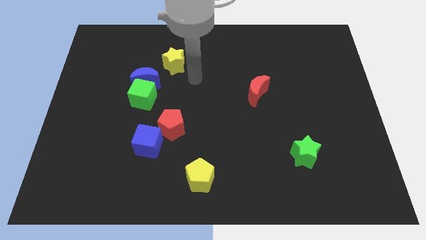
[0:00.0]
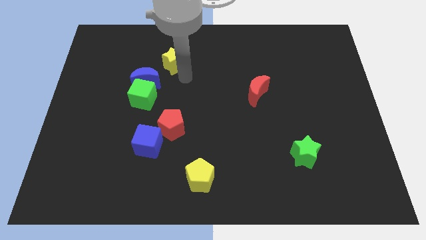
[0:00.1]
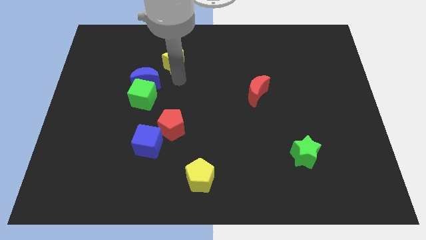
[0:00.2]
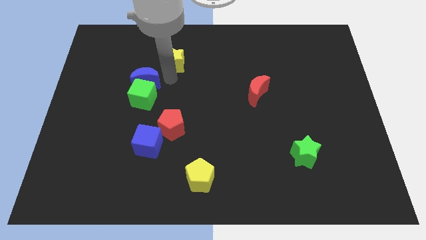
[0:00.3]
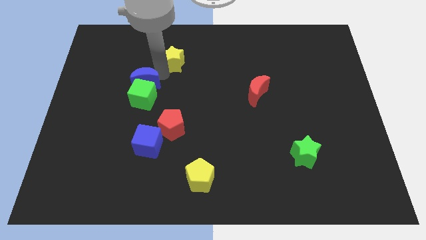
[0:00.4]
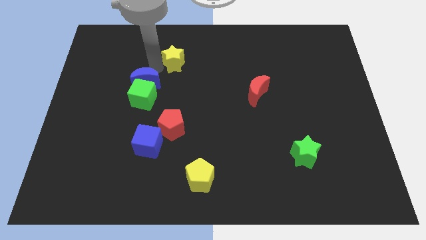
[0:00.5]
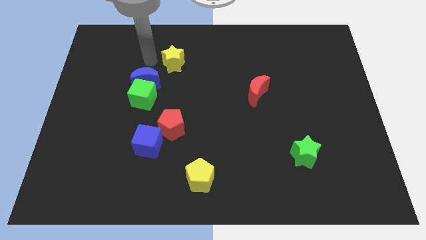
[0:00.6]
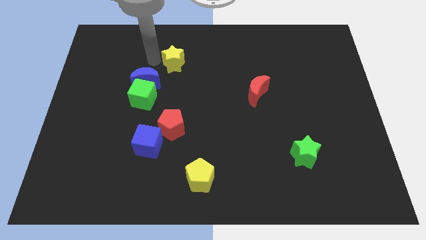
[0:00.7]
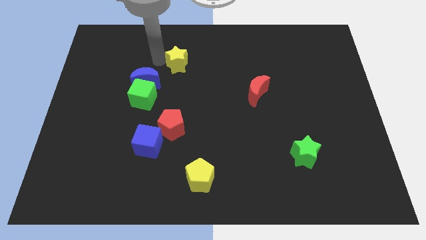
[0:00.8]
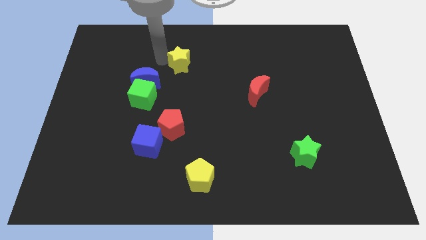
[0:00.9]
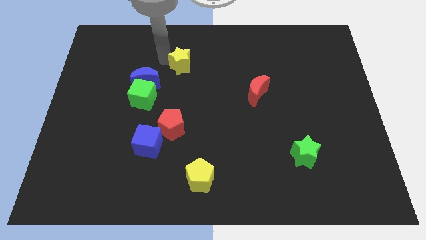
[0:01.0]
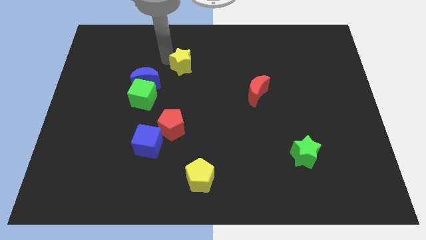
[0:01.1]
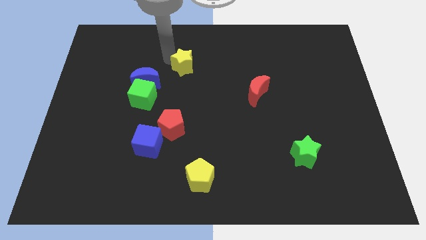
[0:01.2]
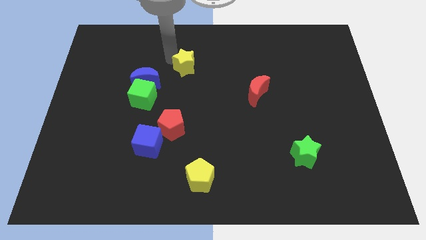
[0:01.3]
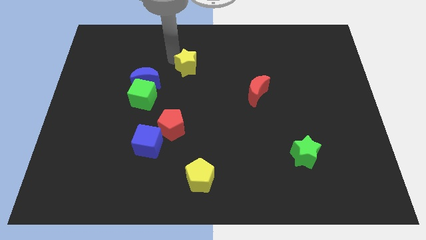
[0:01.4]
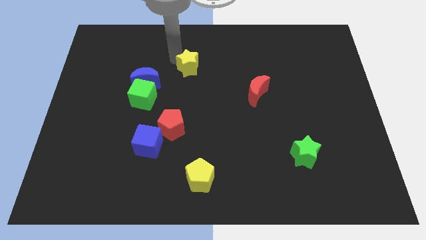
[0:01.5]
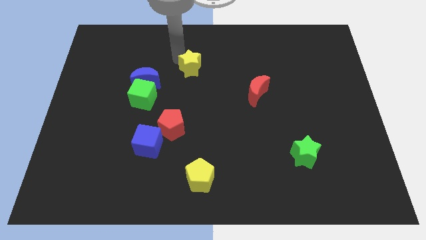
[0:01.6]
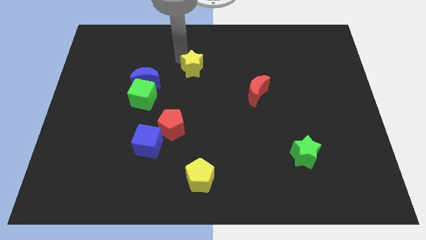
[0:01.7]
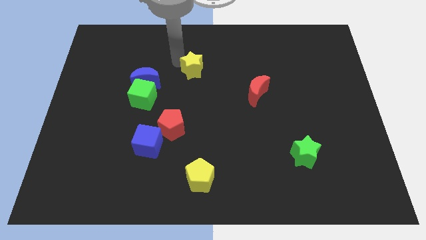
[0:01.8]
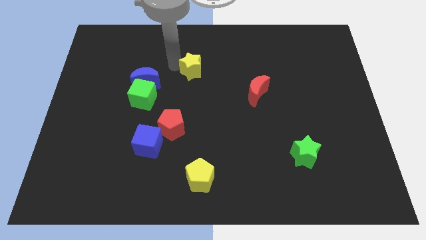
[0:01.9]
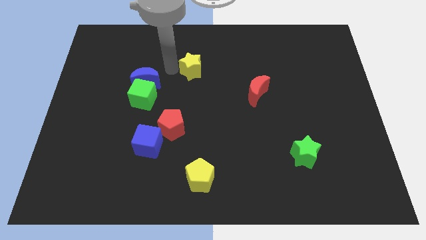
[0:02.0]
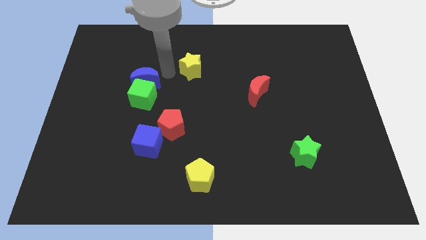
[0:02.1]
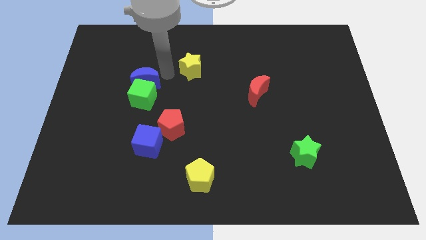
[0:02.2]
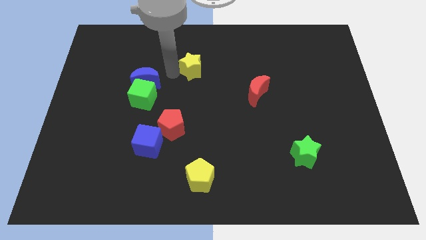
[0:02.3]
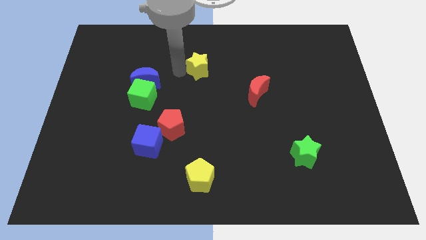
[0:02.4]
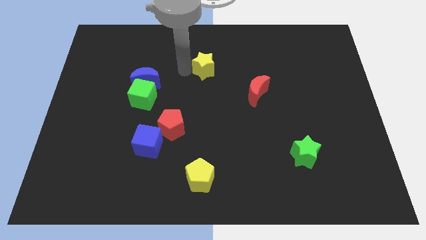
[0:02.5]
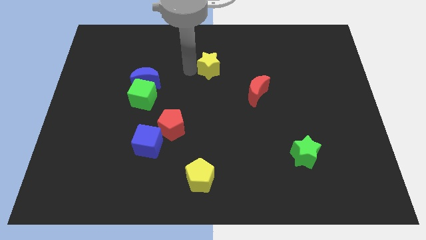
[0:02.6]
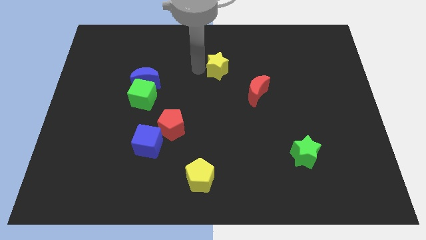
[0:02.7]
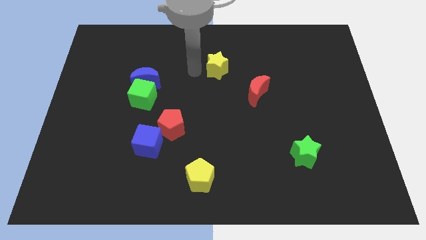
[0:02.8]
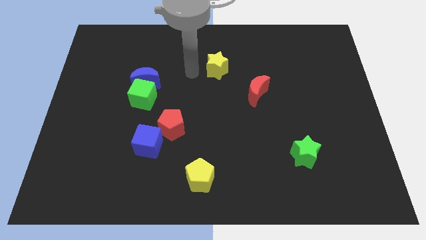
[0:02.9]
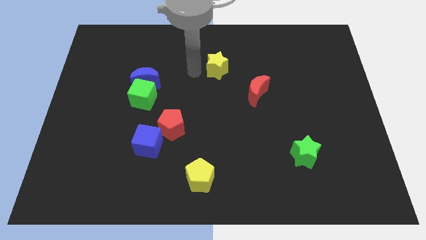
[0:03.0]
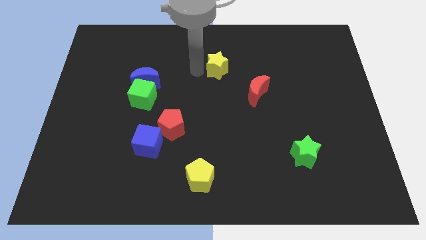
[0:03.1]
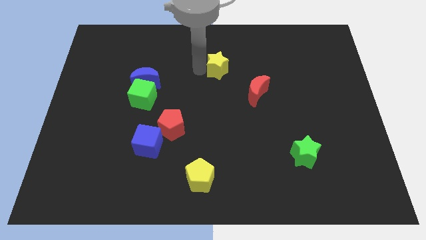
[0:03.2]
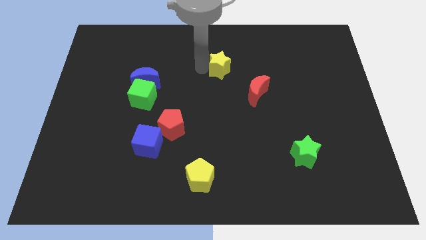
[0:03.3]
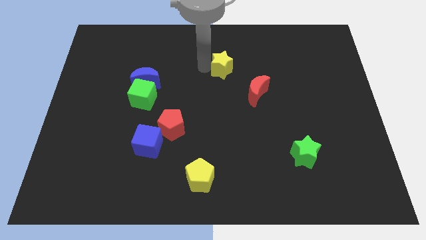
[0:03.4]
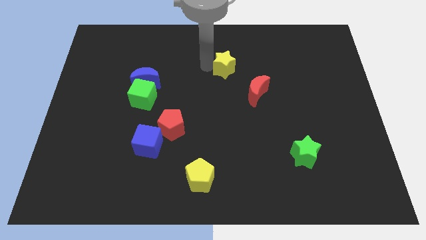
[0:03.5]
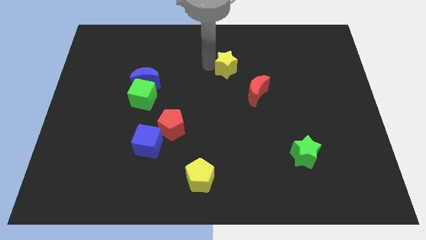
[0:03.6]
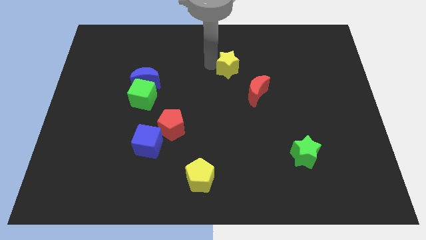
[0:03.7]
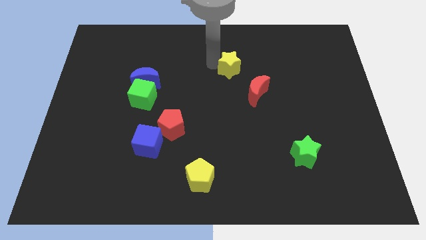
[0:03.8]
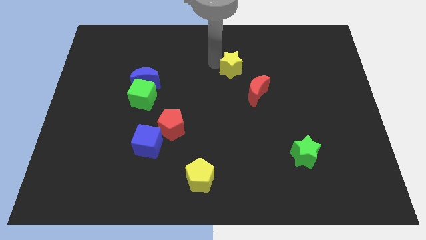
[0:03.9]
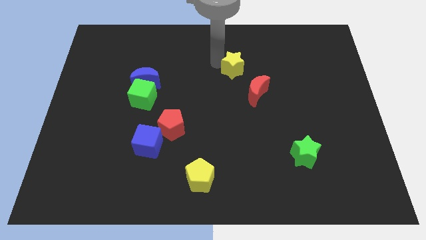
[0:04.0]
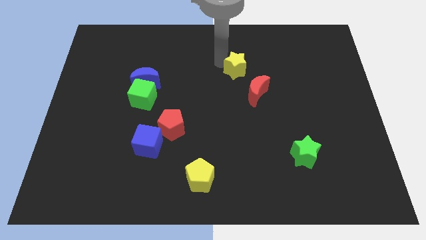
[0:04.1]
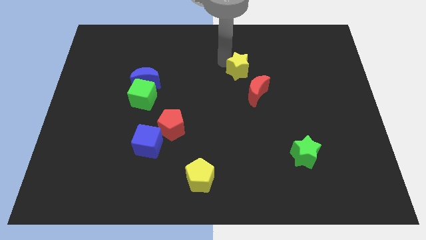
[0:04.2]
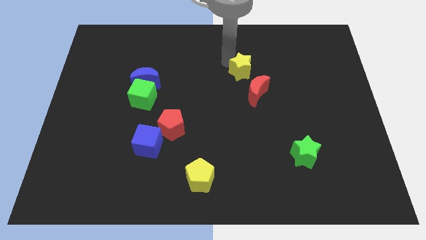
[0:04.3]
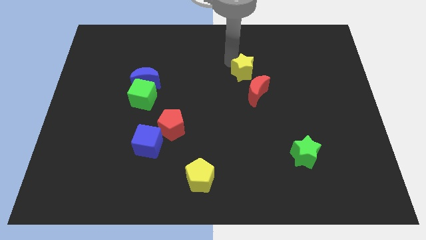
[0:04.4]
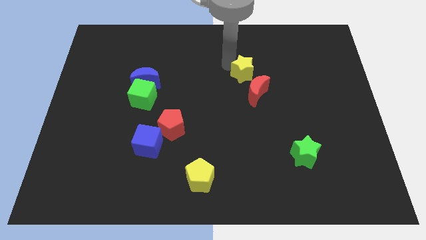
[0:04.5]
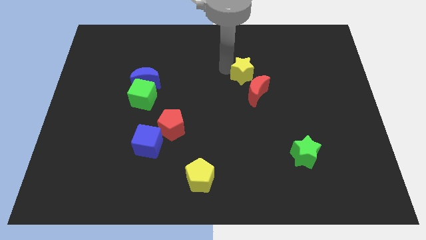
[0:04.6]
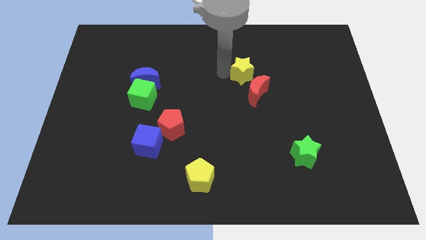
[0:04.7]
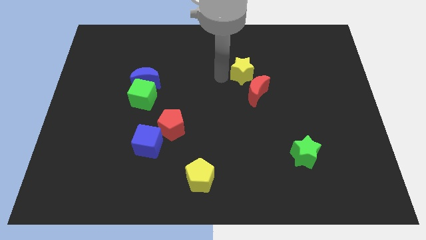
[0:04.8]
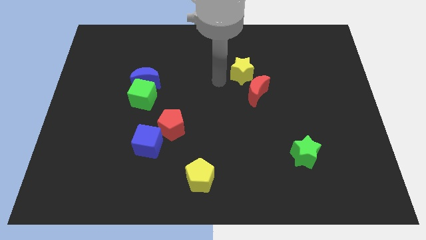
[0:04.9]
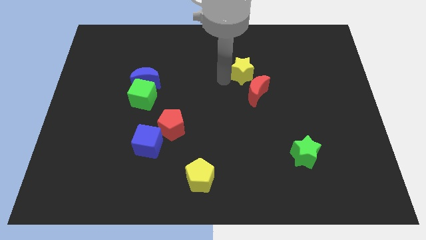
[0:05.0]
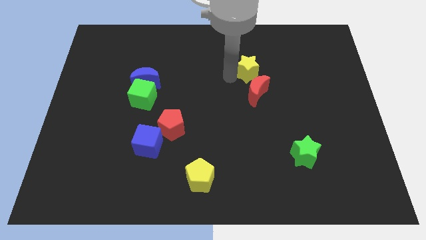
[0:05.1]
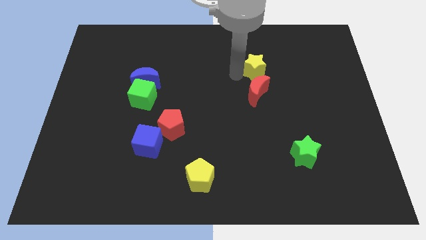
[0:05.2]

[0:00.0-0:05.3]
move the yellow star to the right

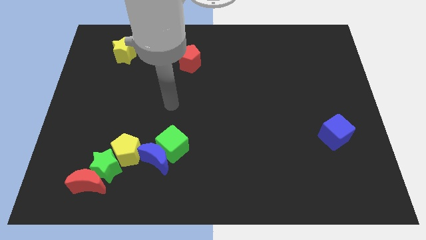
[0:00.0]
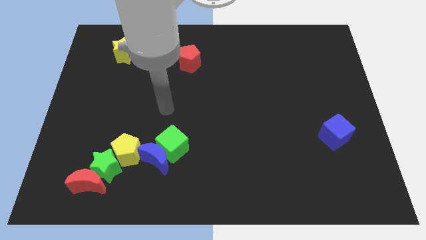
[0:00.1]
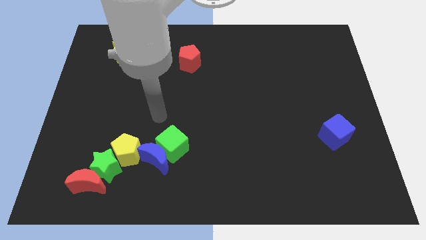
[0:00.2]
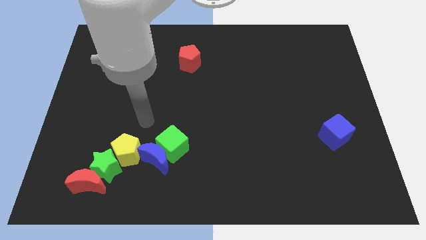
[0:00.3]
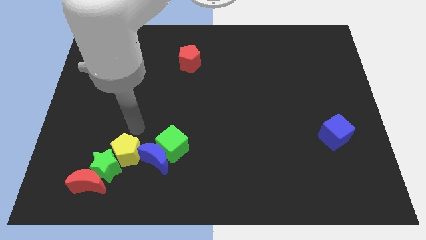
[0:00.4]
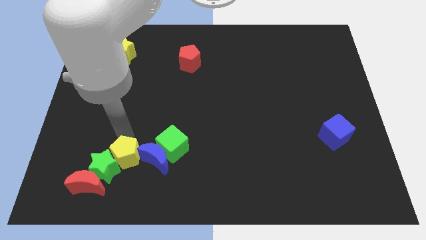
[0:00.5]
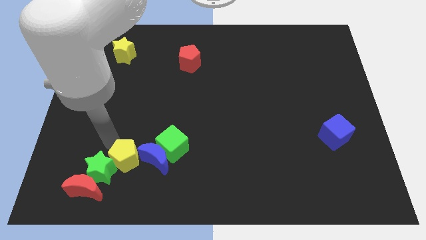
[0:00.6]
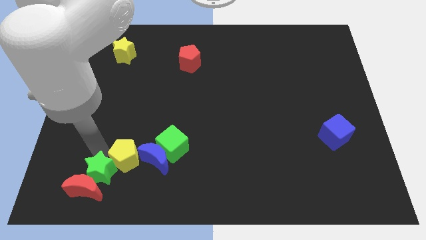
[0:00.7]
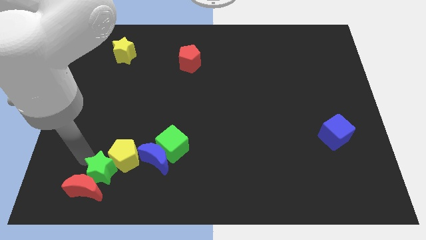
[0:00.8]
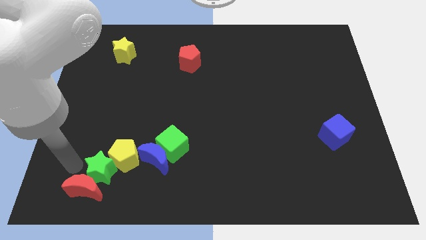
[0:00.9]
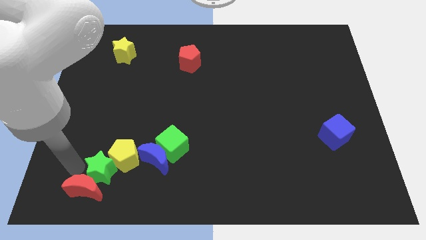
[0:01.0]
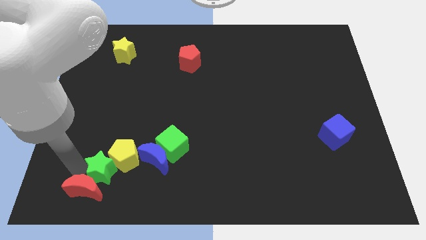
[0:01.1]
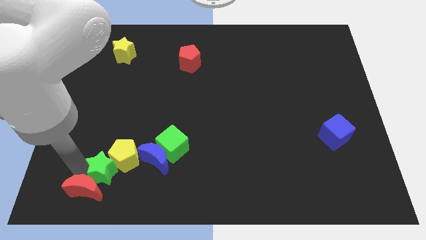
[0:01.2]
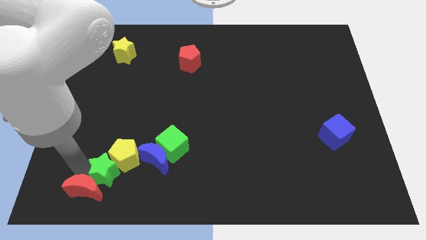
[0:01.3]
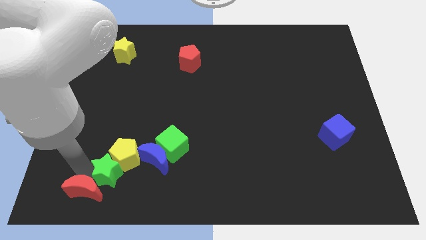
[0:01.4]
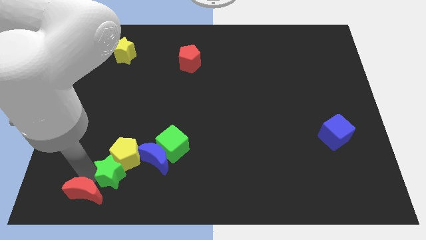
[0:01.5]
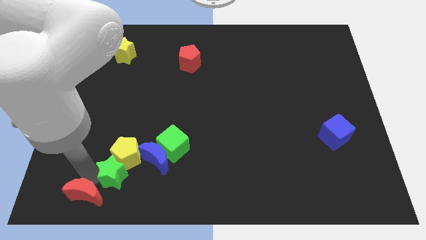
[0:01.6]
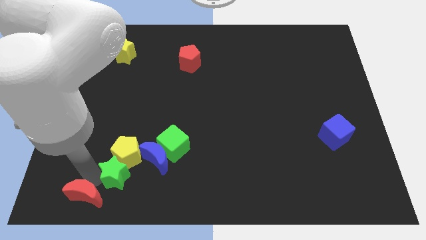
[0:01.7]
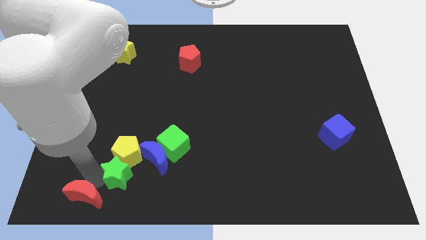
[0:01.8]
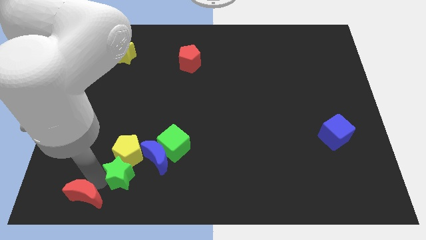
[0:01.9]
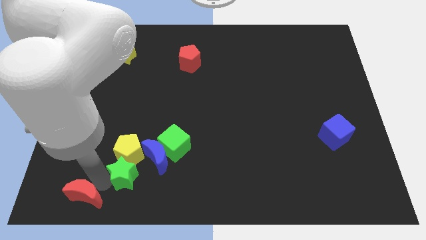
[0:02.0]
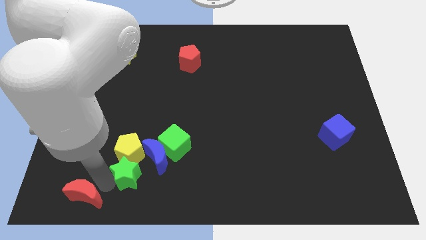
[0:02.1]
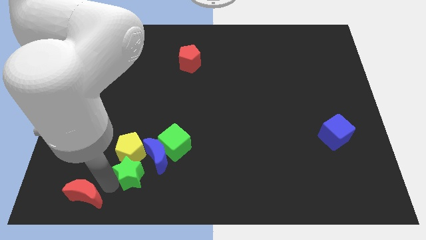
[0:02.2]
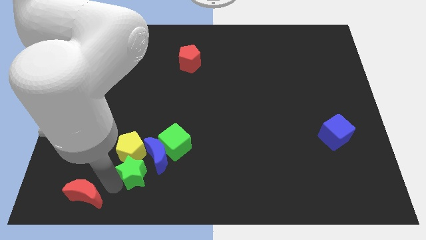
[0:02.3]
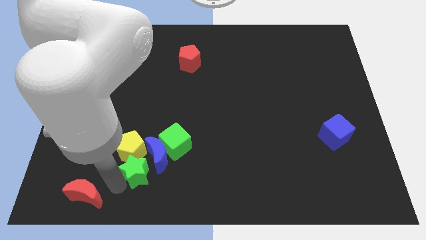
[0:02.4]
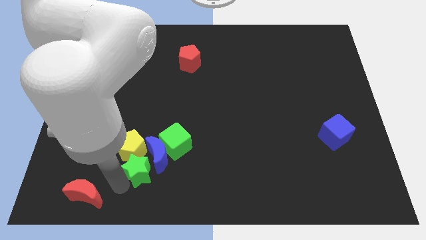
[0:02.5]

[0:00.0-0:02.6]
move the green star to the right a little
